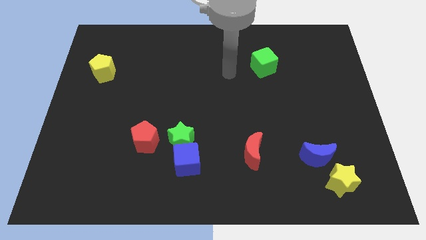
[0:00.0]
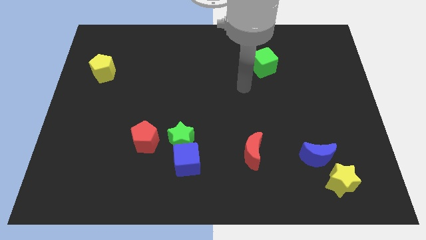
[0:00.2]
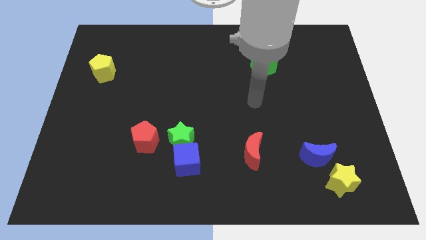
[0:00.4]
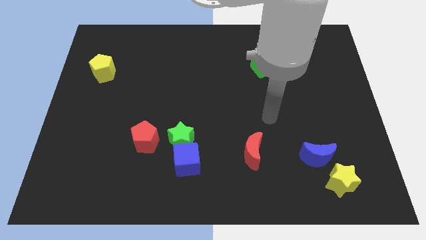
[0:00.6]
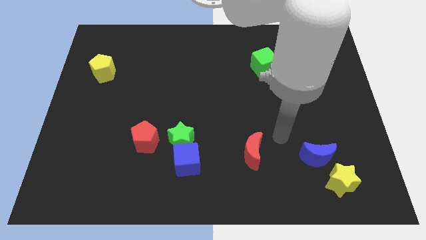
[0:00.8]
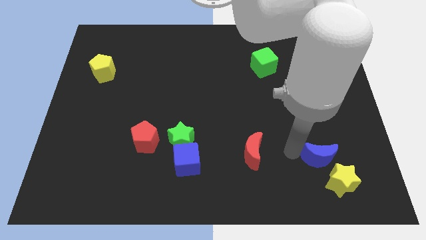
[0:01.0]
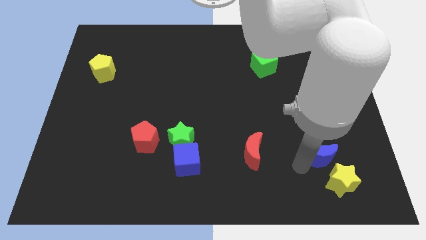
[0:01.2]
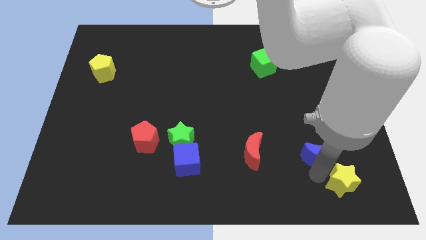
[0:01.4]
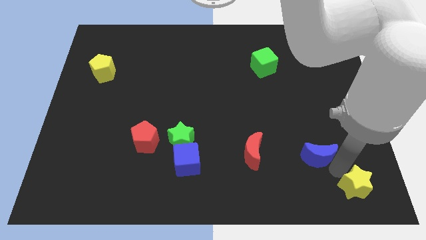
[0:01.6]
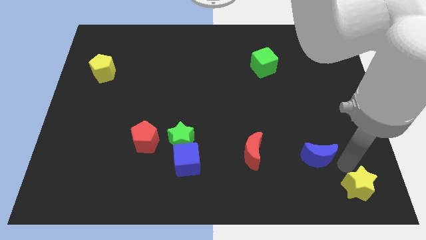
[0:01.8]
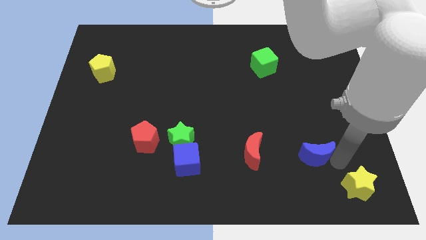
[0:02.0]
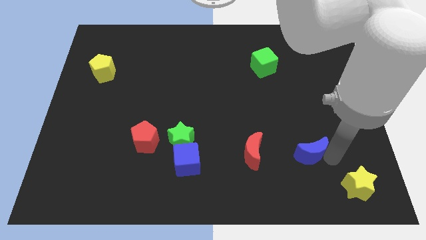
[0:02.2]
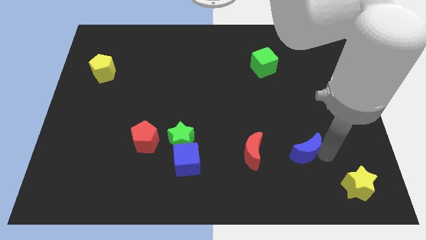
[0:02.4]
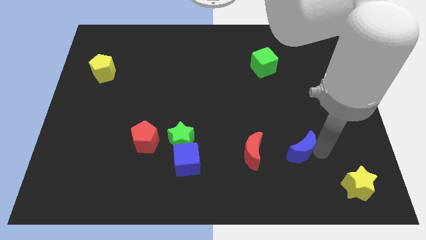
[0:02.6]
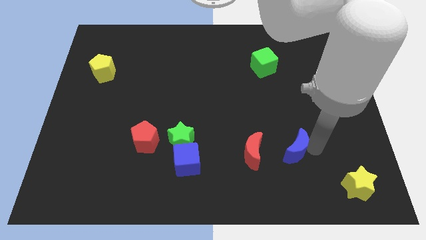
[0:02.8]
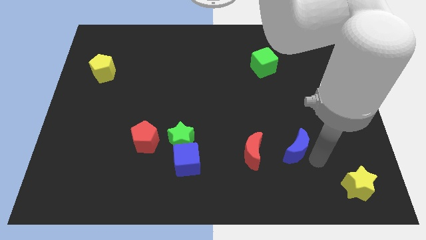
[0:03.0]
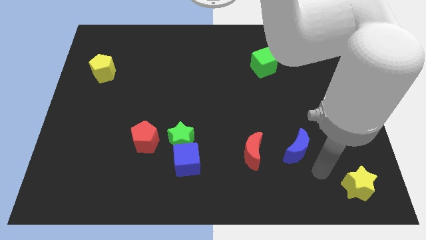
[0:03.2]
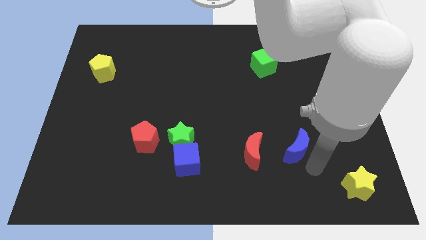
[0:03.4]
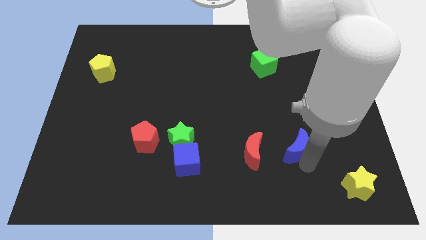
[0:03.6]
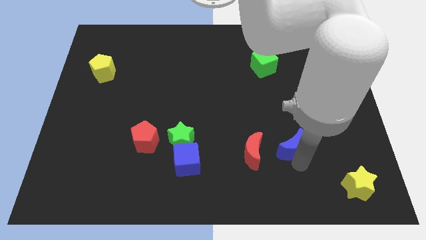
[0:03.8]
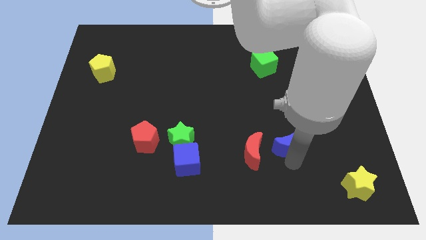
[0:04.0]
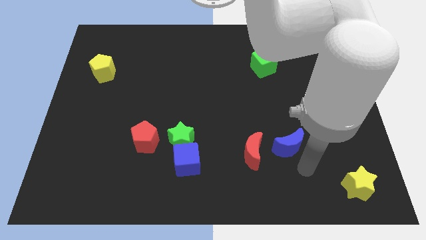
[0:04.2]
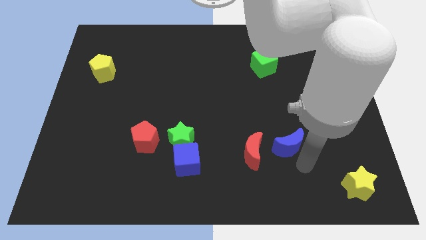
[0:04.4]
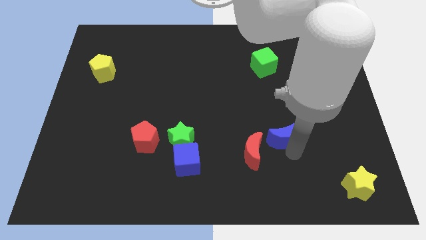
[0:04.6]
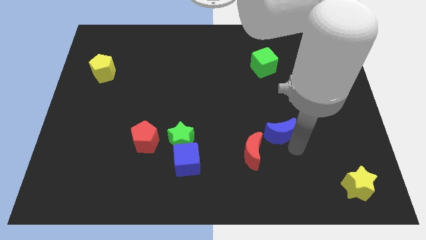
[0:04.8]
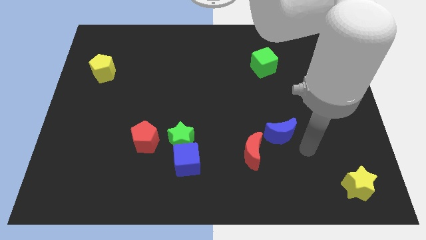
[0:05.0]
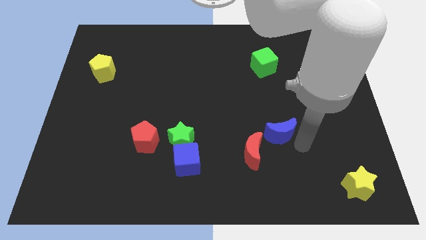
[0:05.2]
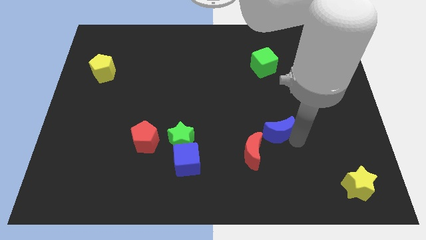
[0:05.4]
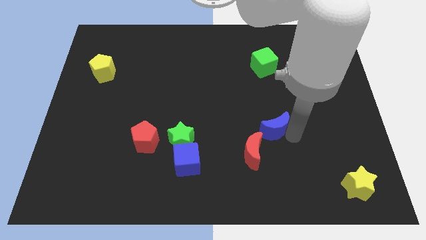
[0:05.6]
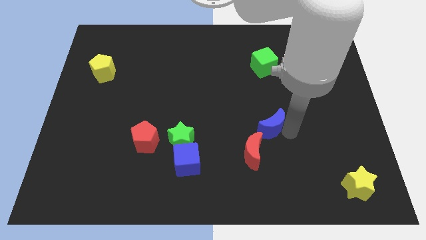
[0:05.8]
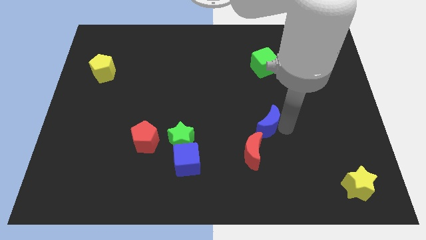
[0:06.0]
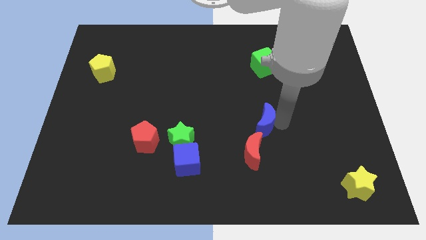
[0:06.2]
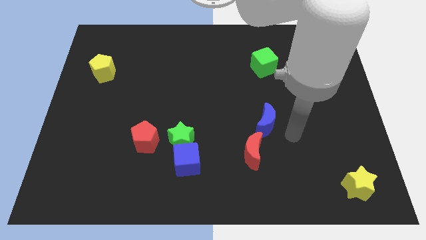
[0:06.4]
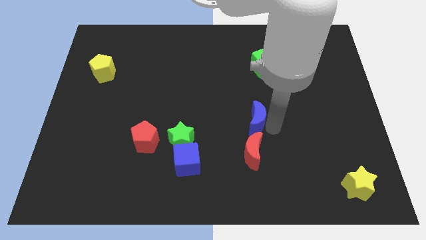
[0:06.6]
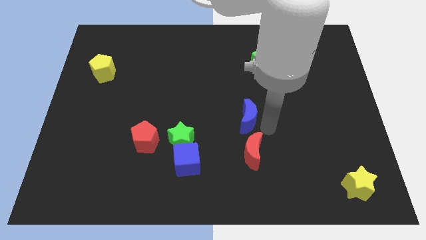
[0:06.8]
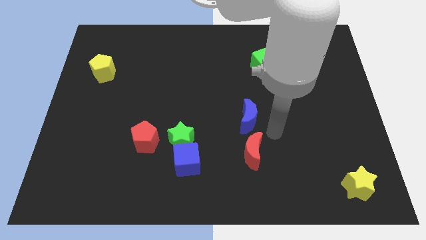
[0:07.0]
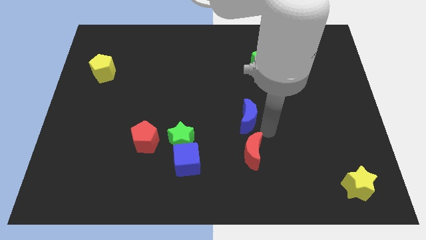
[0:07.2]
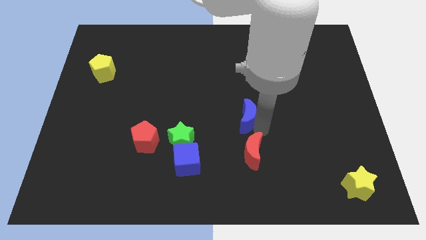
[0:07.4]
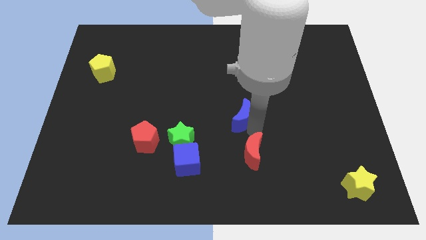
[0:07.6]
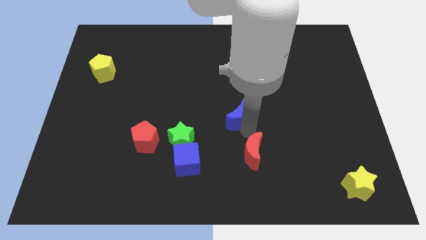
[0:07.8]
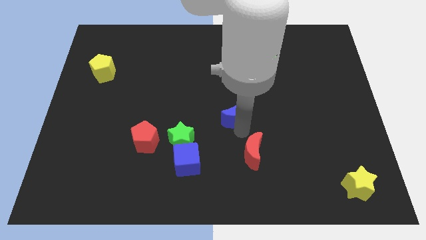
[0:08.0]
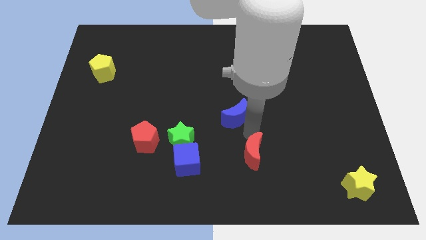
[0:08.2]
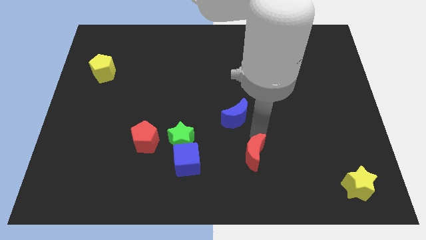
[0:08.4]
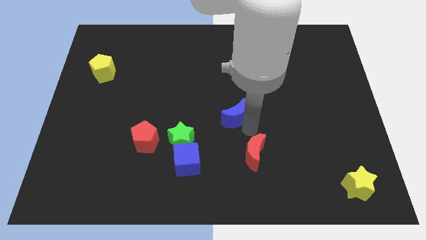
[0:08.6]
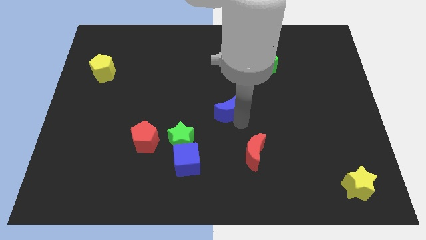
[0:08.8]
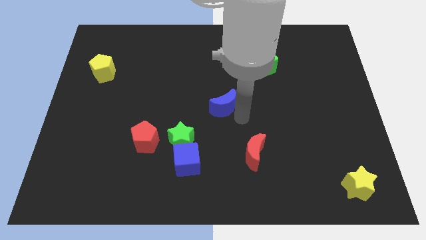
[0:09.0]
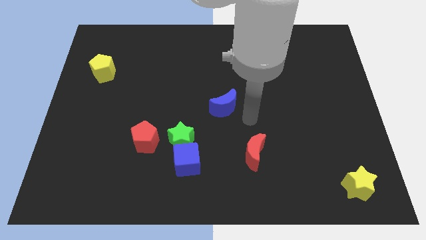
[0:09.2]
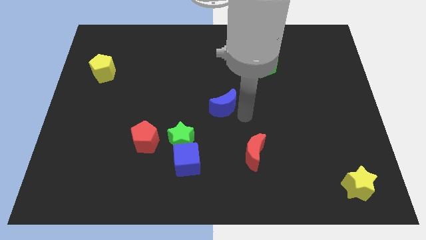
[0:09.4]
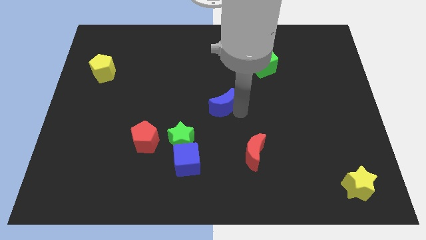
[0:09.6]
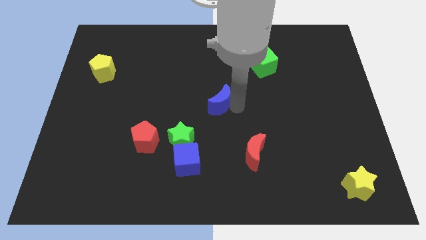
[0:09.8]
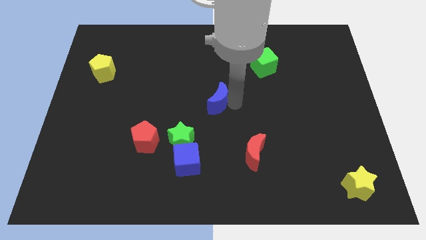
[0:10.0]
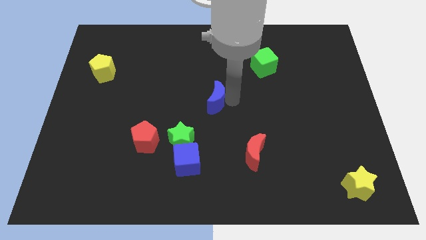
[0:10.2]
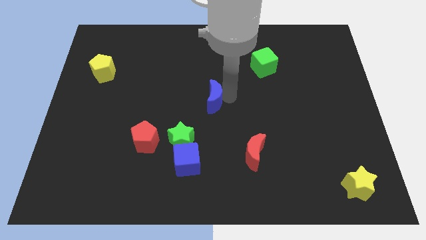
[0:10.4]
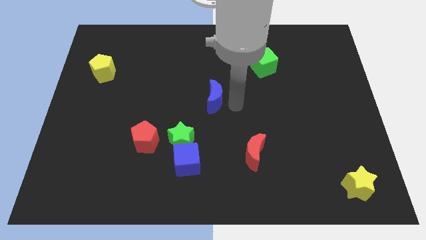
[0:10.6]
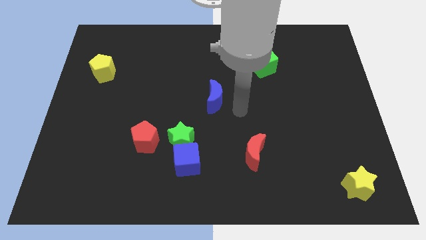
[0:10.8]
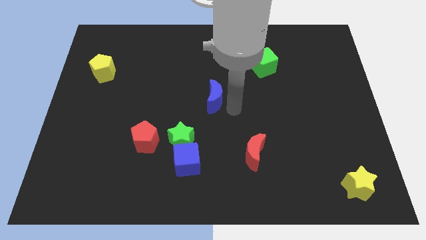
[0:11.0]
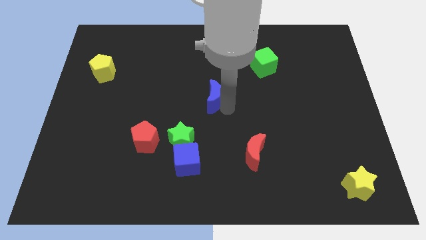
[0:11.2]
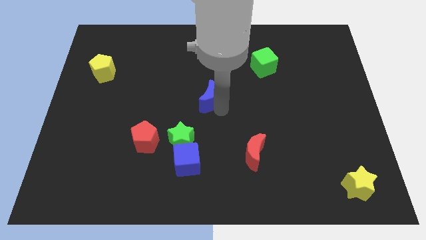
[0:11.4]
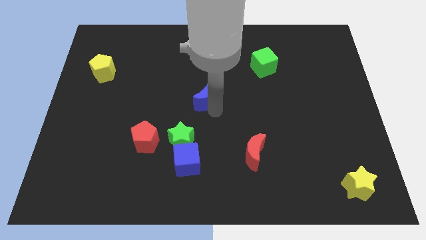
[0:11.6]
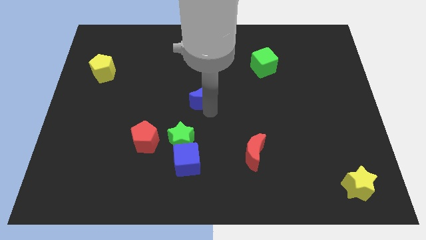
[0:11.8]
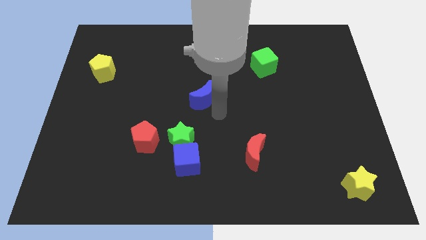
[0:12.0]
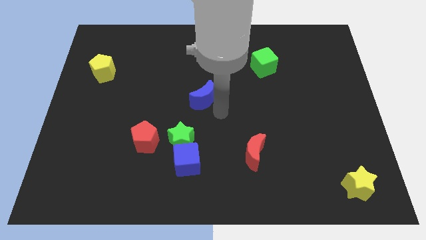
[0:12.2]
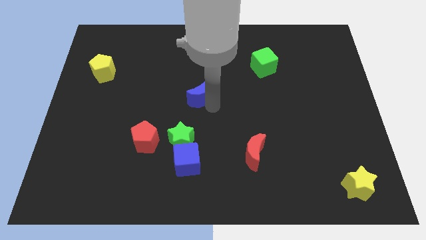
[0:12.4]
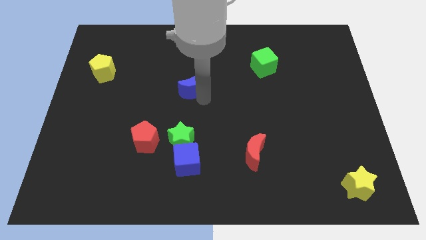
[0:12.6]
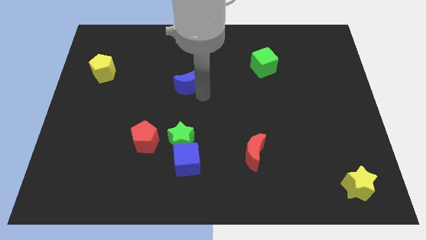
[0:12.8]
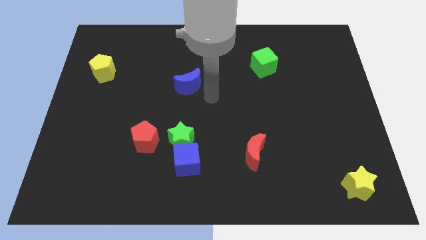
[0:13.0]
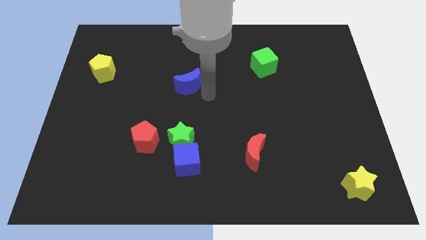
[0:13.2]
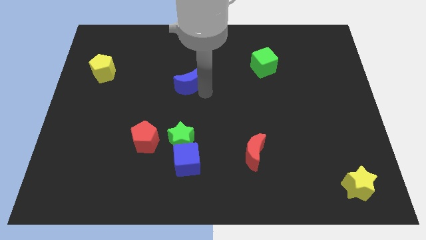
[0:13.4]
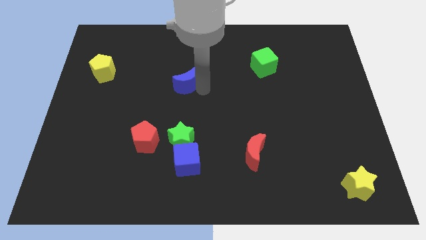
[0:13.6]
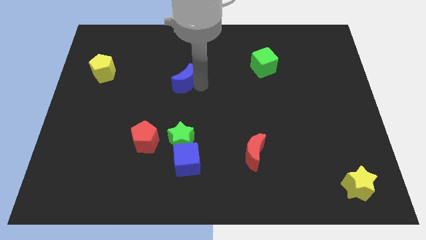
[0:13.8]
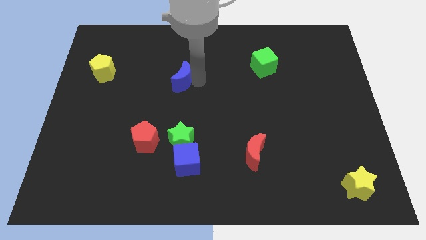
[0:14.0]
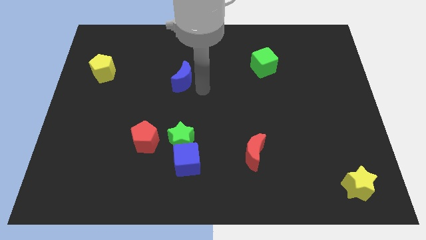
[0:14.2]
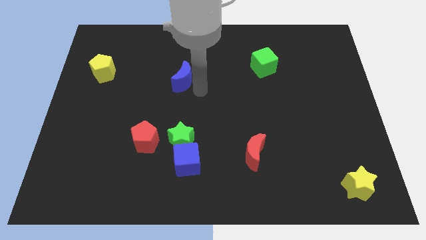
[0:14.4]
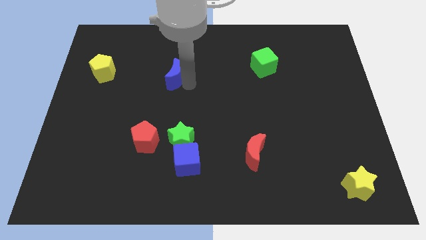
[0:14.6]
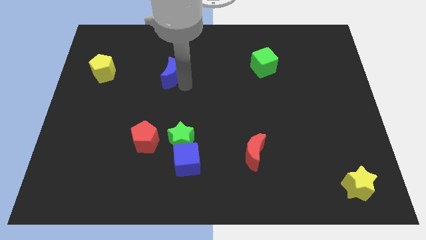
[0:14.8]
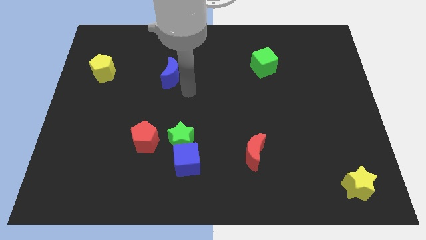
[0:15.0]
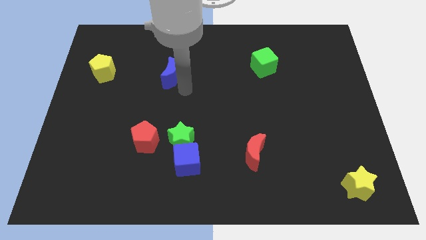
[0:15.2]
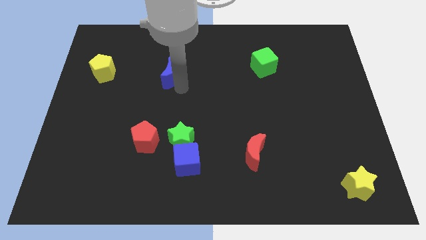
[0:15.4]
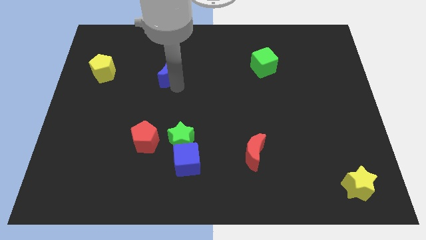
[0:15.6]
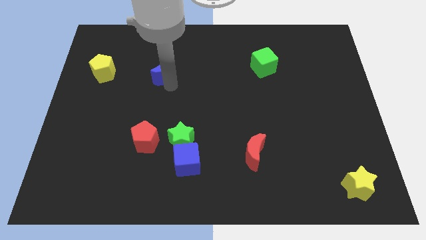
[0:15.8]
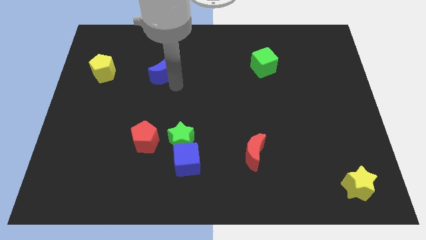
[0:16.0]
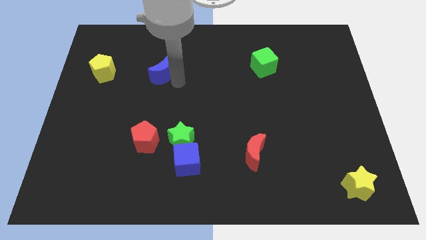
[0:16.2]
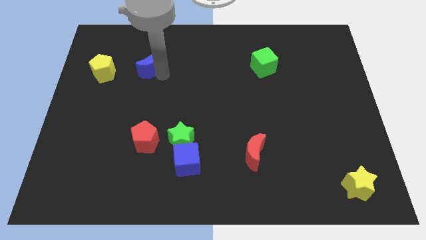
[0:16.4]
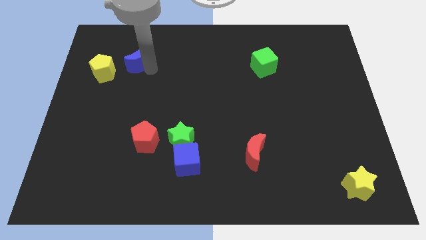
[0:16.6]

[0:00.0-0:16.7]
push the blue moon diagonally up and to the right of the yellow pentagon

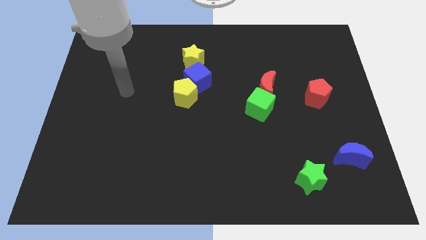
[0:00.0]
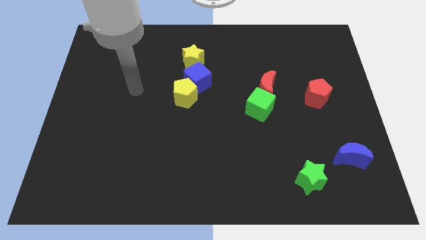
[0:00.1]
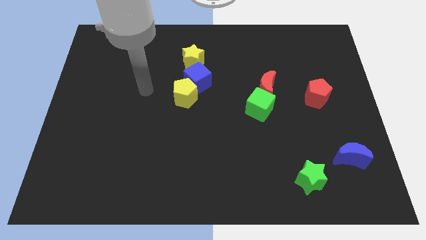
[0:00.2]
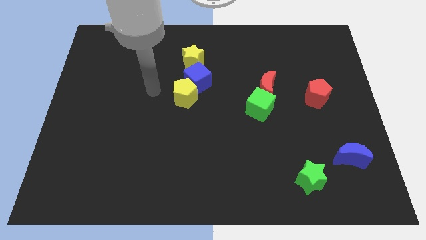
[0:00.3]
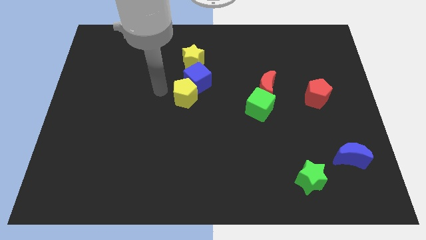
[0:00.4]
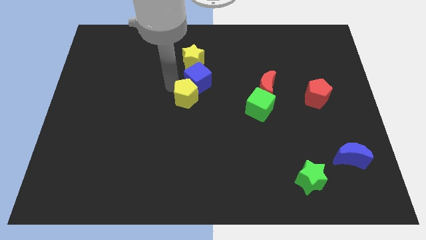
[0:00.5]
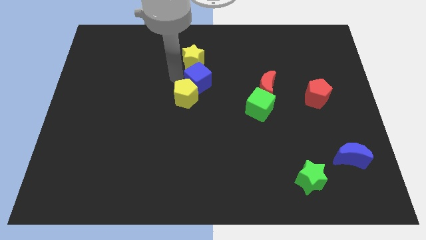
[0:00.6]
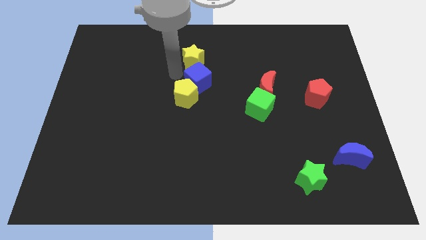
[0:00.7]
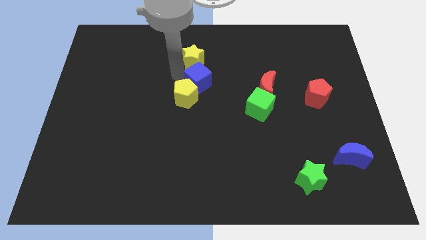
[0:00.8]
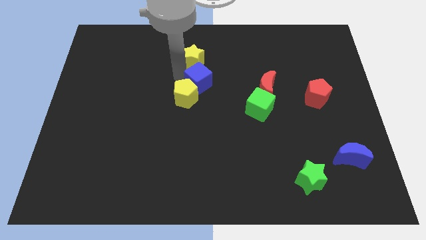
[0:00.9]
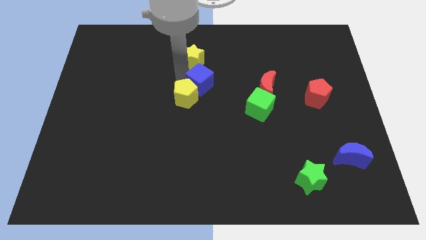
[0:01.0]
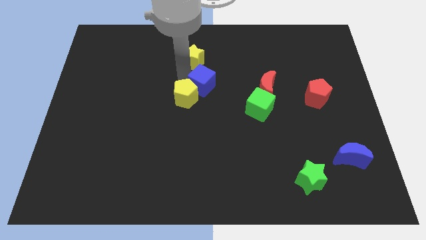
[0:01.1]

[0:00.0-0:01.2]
slide the blue cube to the left side of the red moon
